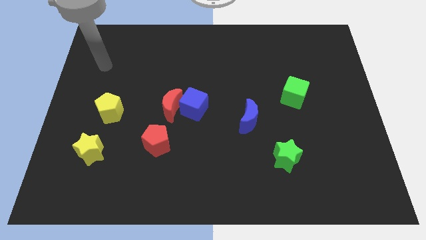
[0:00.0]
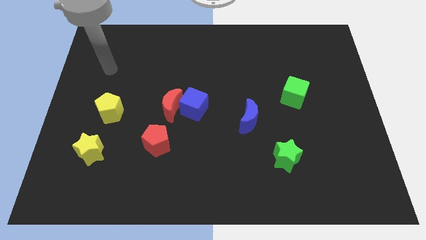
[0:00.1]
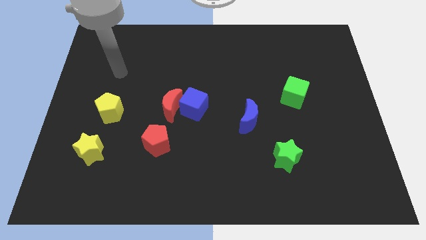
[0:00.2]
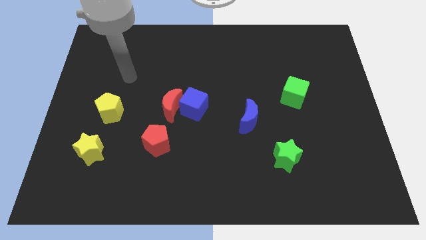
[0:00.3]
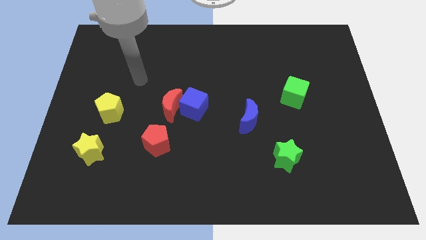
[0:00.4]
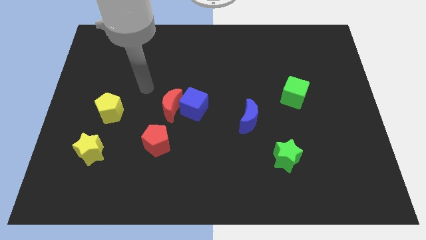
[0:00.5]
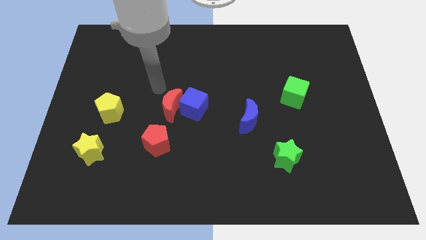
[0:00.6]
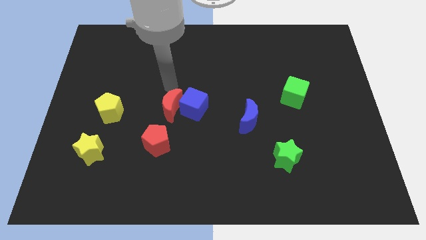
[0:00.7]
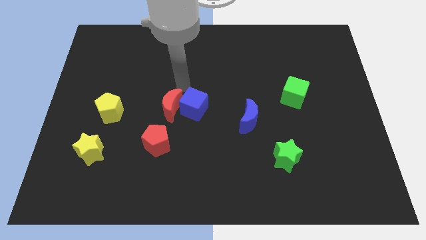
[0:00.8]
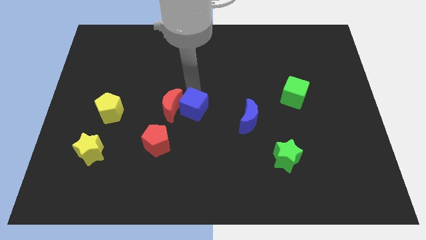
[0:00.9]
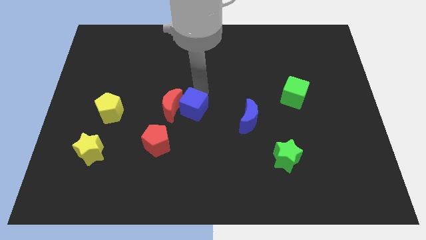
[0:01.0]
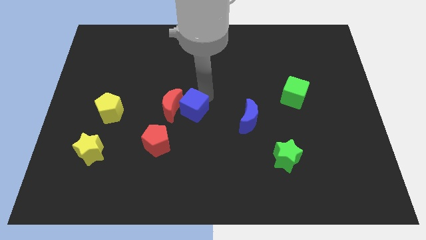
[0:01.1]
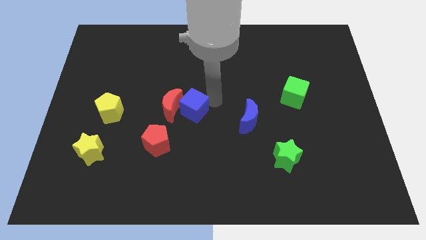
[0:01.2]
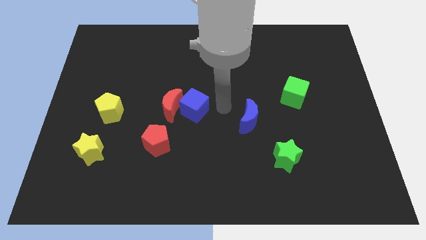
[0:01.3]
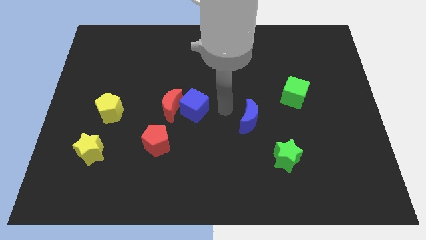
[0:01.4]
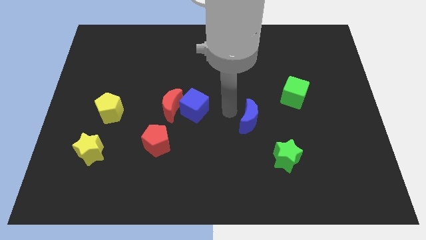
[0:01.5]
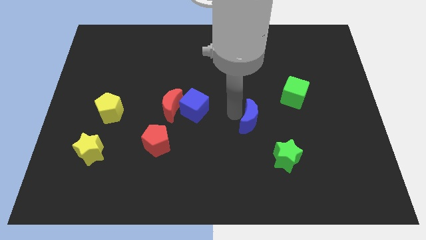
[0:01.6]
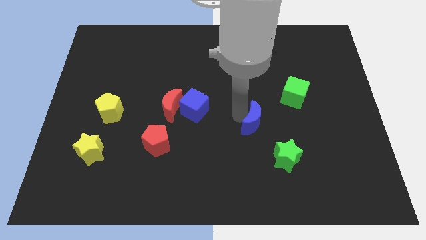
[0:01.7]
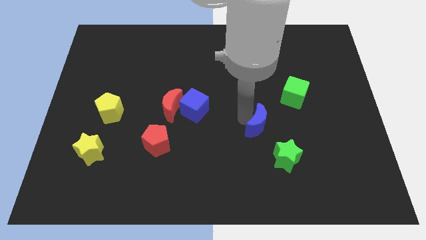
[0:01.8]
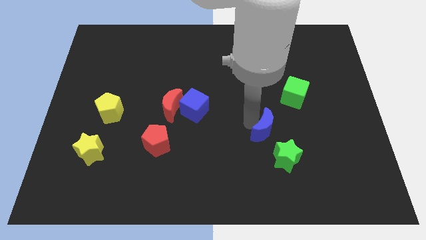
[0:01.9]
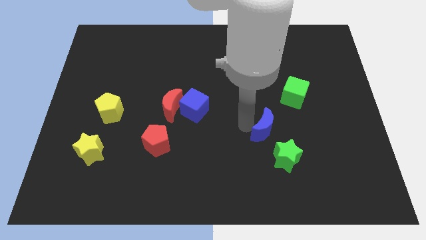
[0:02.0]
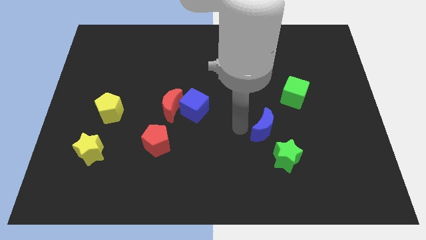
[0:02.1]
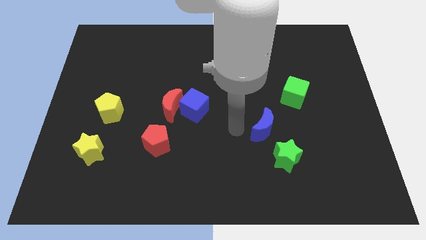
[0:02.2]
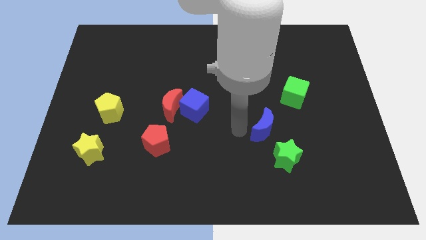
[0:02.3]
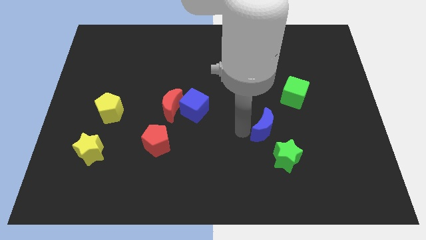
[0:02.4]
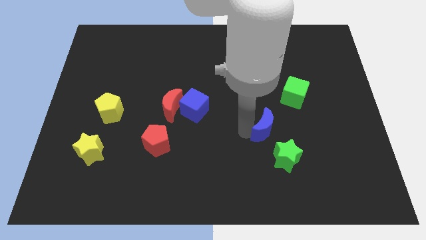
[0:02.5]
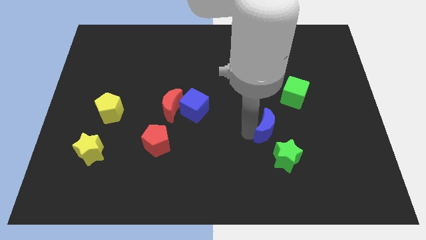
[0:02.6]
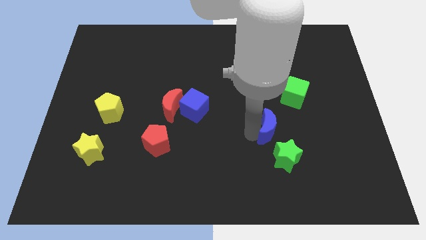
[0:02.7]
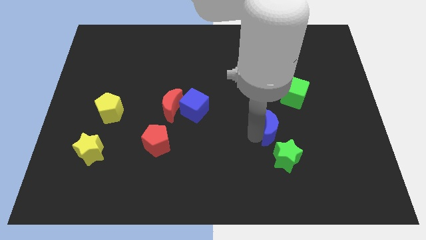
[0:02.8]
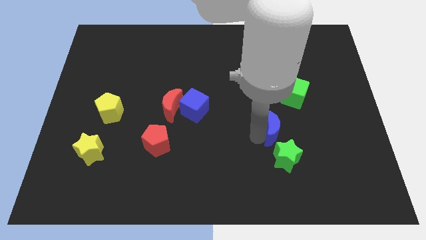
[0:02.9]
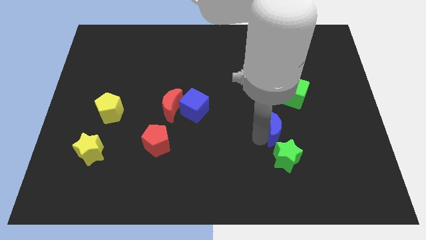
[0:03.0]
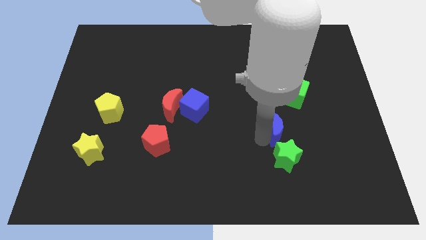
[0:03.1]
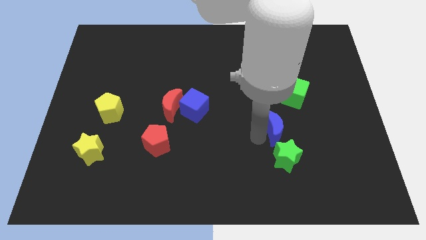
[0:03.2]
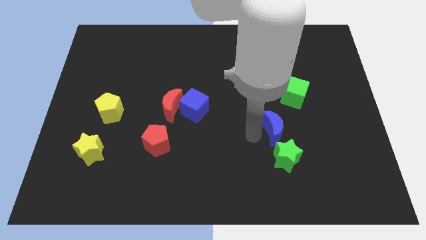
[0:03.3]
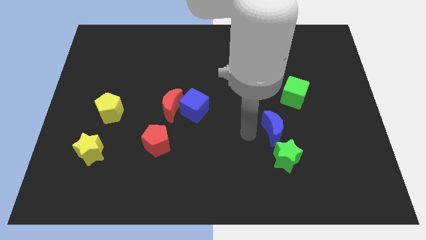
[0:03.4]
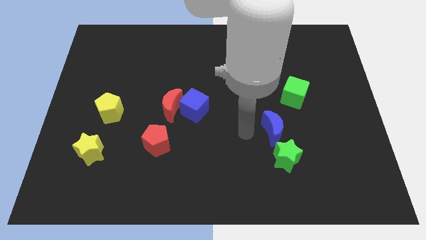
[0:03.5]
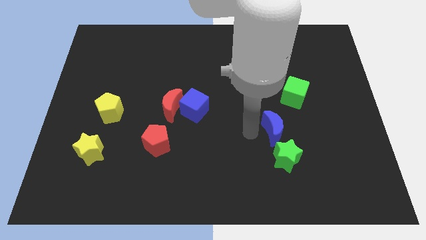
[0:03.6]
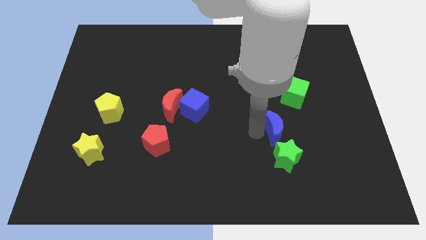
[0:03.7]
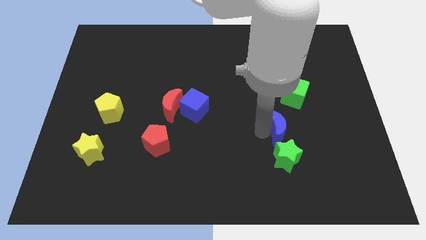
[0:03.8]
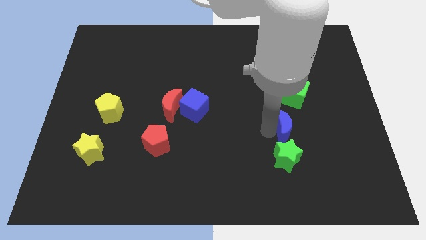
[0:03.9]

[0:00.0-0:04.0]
slide the blue moon right slightly

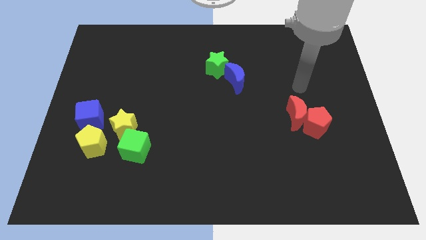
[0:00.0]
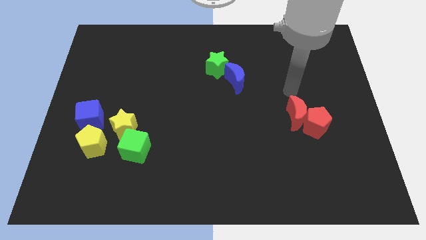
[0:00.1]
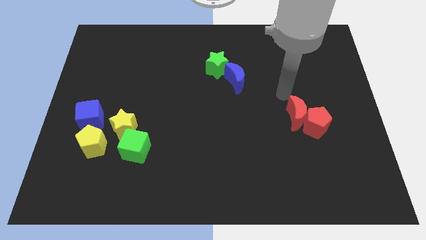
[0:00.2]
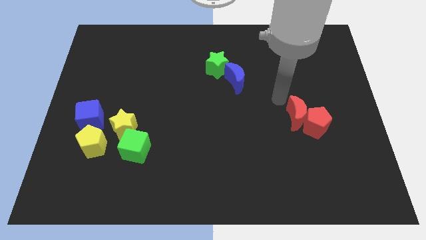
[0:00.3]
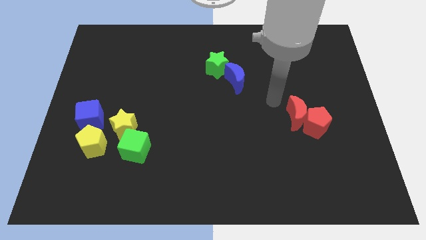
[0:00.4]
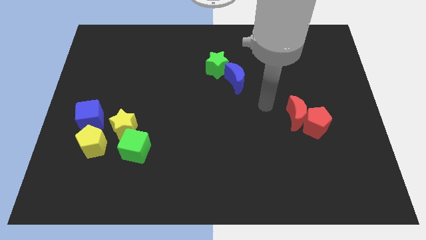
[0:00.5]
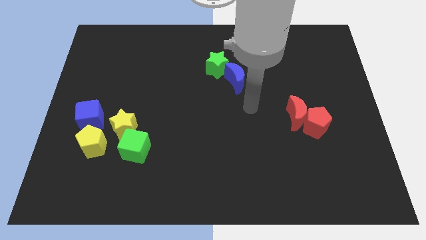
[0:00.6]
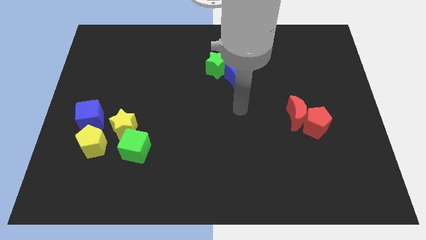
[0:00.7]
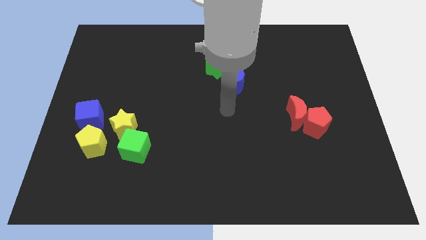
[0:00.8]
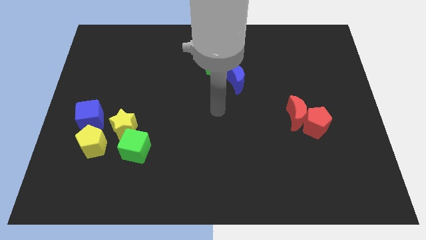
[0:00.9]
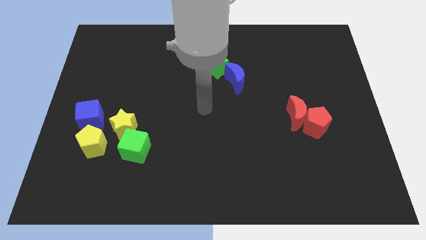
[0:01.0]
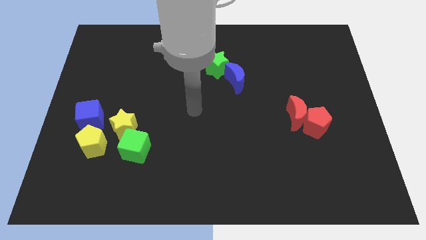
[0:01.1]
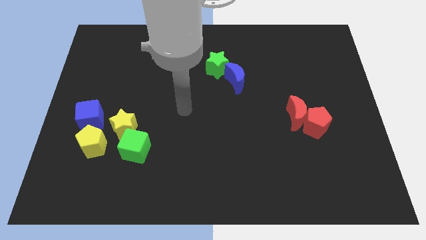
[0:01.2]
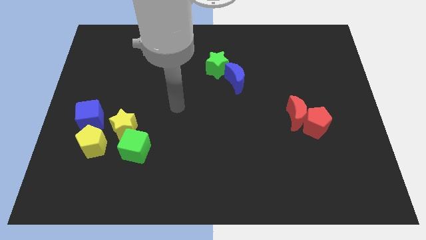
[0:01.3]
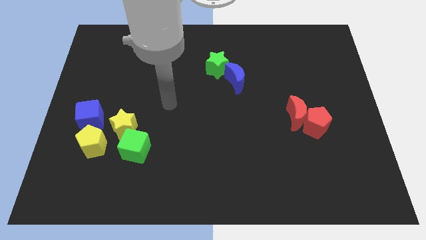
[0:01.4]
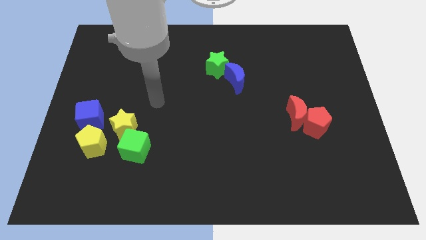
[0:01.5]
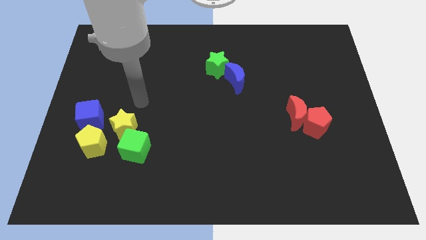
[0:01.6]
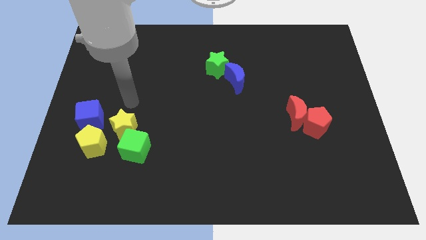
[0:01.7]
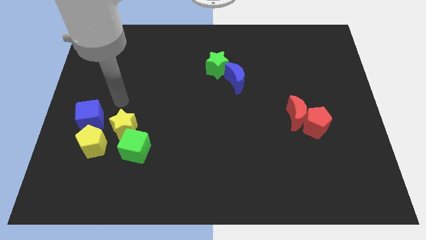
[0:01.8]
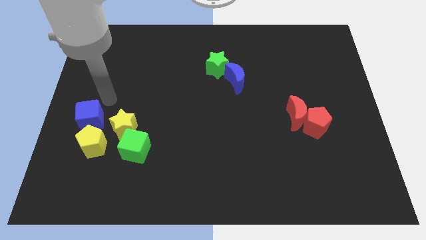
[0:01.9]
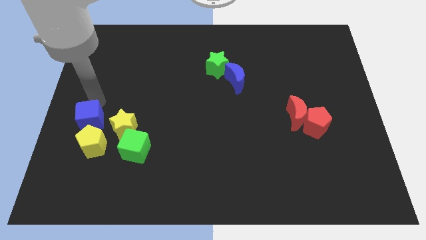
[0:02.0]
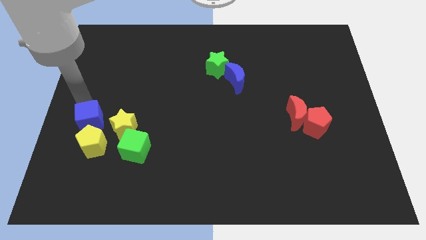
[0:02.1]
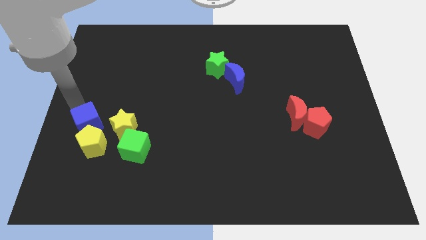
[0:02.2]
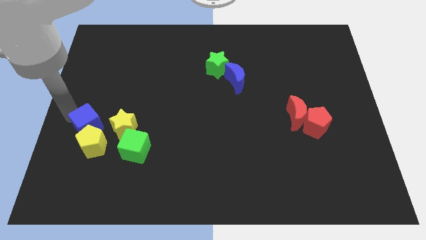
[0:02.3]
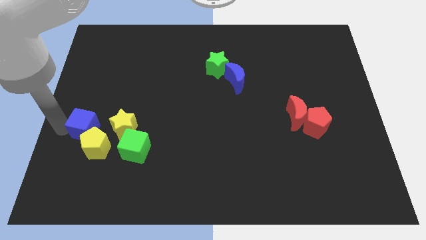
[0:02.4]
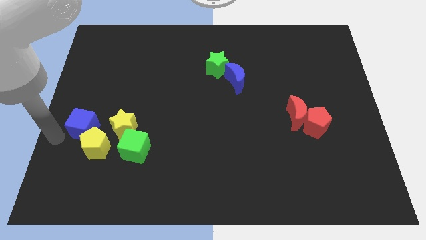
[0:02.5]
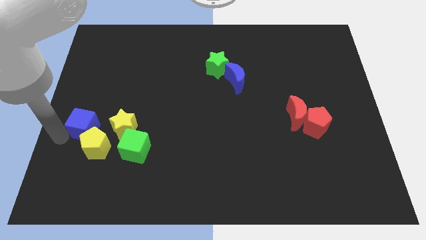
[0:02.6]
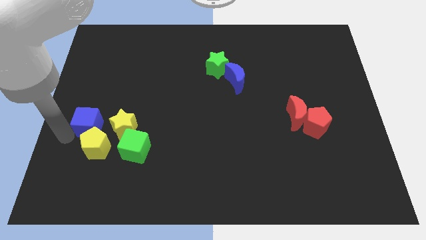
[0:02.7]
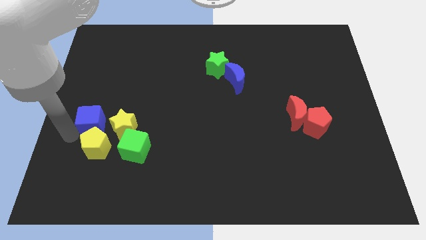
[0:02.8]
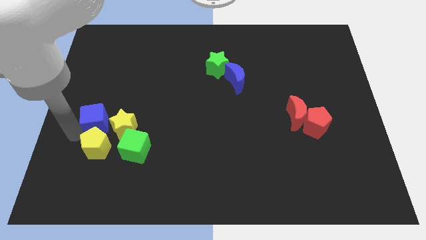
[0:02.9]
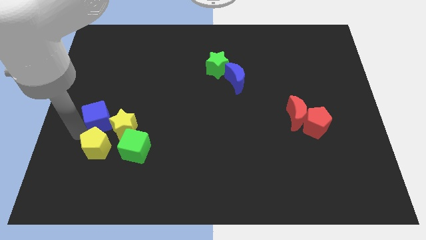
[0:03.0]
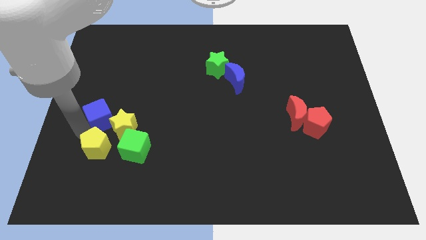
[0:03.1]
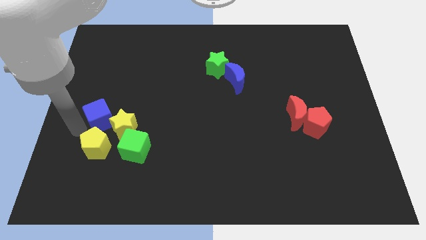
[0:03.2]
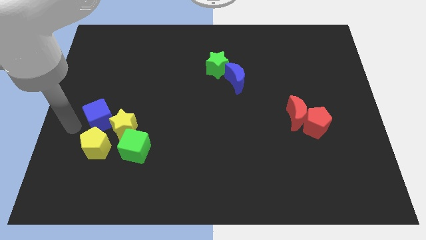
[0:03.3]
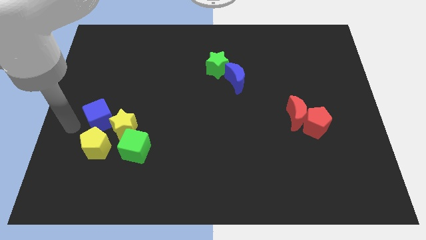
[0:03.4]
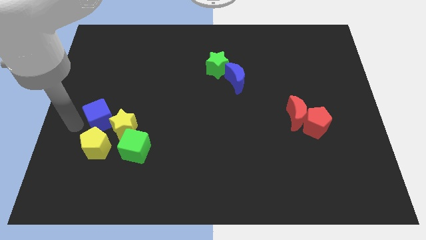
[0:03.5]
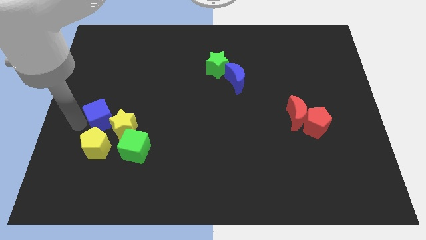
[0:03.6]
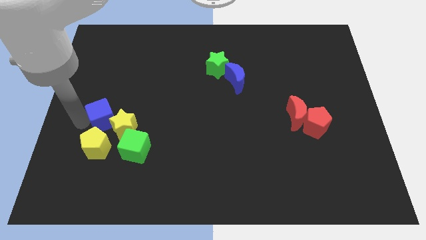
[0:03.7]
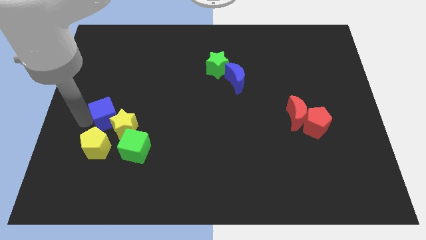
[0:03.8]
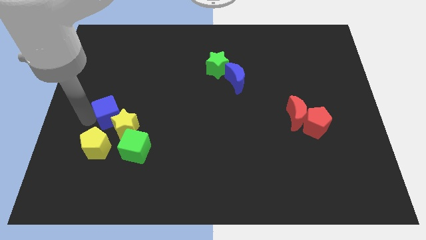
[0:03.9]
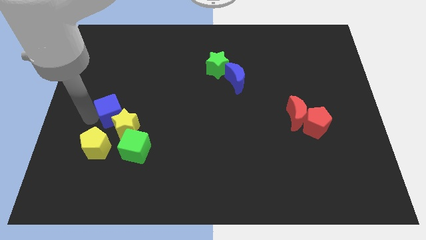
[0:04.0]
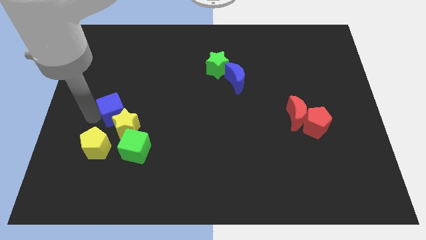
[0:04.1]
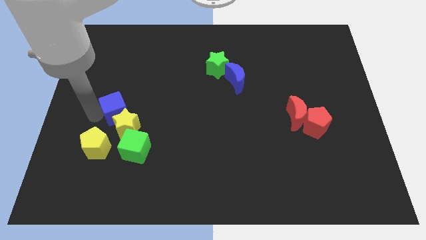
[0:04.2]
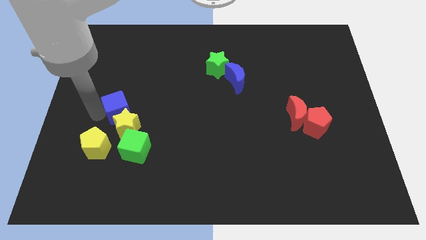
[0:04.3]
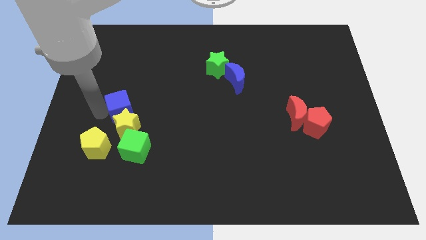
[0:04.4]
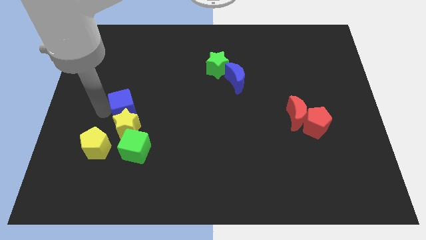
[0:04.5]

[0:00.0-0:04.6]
slide the blue cube a bit right
